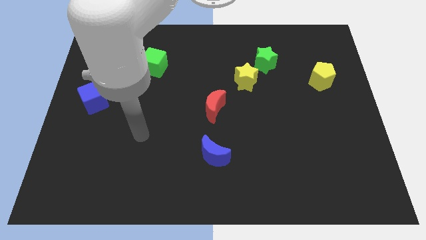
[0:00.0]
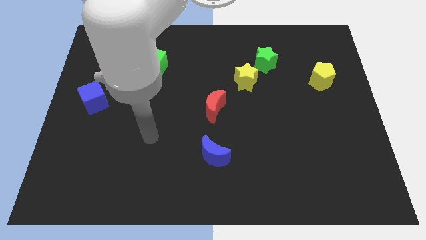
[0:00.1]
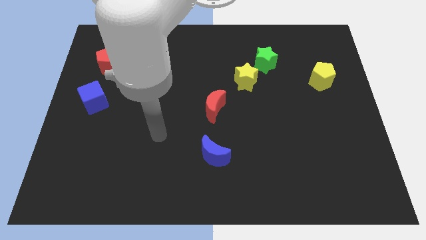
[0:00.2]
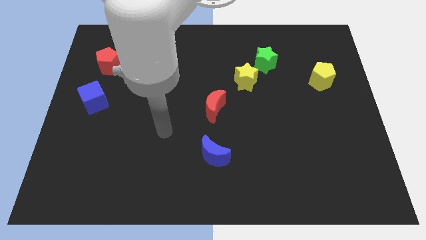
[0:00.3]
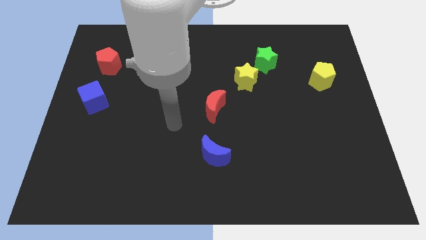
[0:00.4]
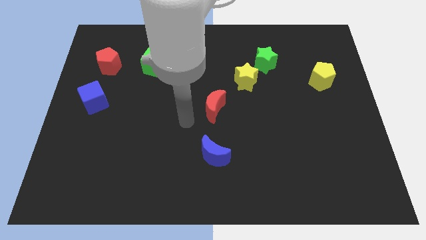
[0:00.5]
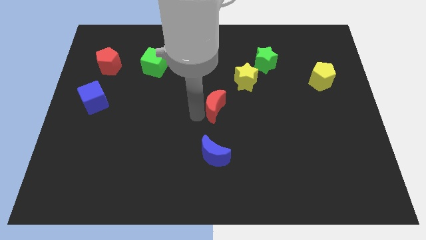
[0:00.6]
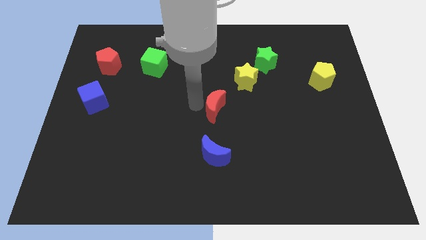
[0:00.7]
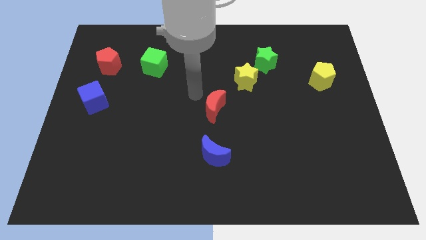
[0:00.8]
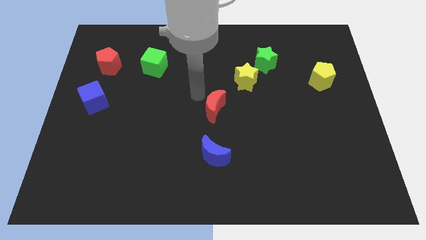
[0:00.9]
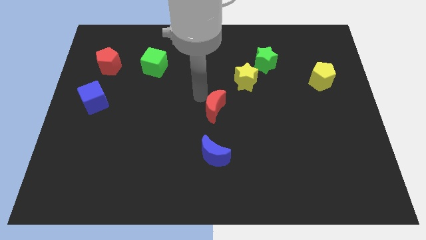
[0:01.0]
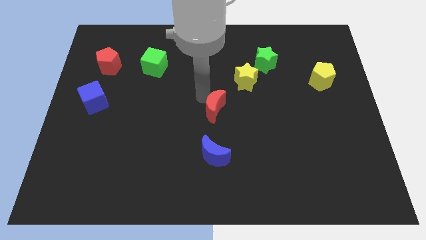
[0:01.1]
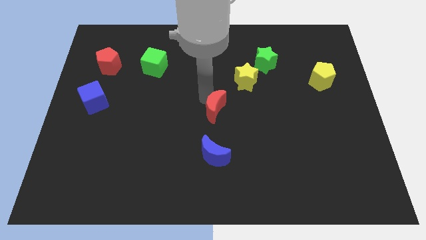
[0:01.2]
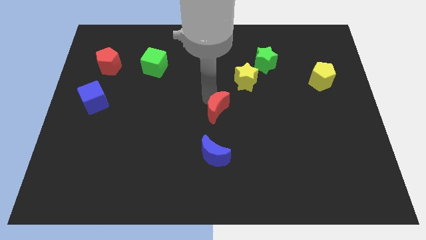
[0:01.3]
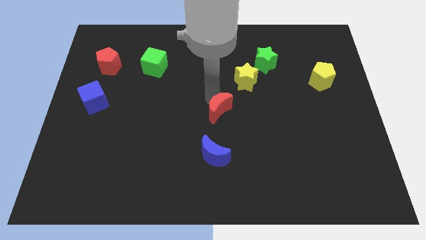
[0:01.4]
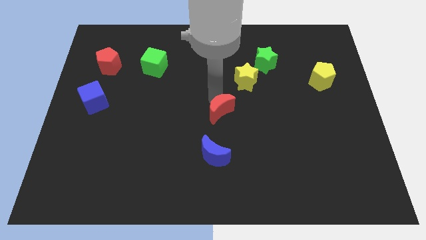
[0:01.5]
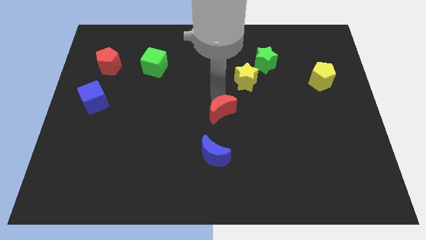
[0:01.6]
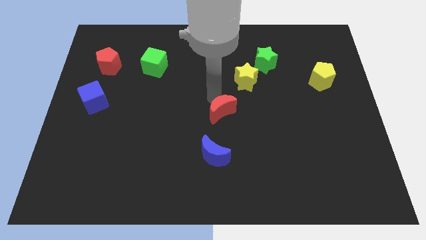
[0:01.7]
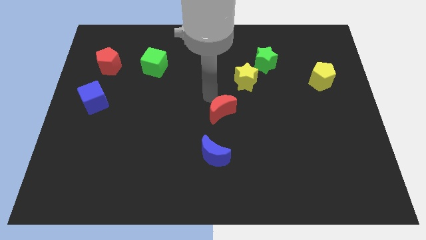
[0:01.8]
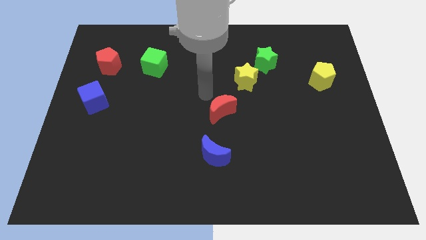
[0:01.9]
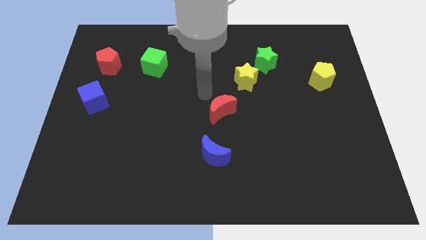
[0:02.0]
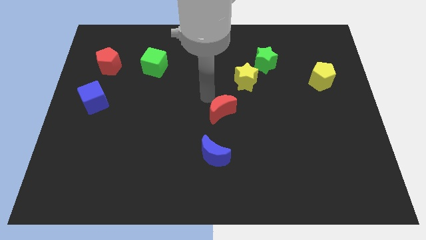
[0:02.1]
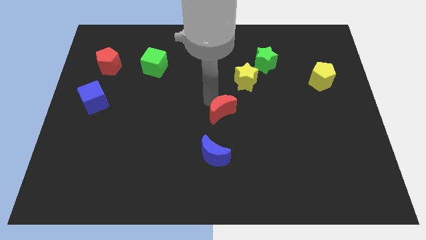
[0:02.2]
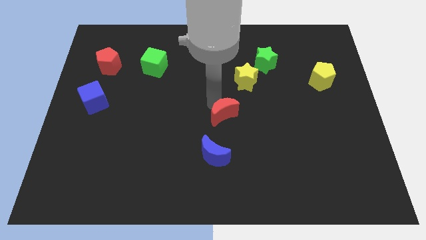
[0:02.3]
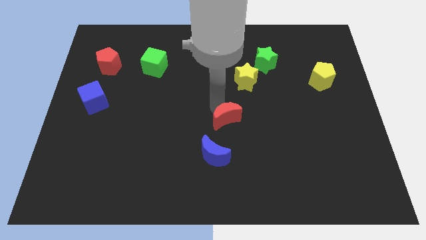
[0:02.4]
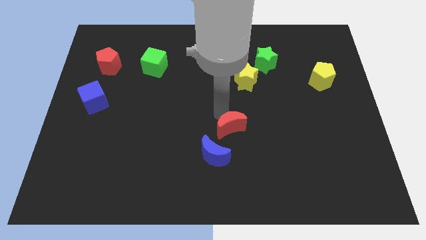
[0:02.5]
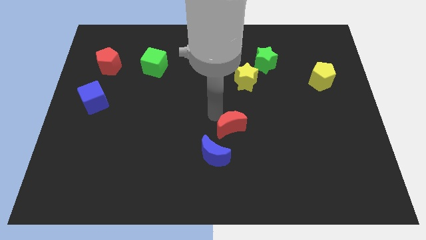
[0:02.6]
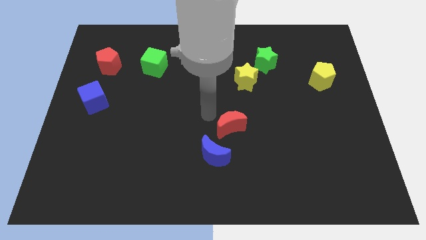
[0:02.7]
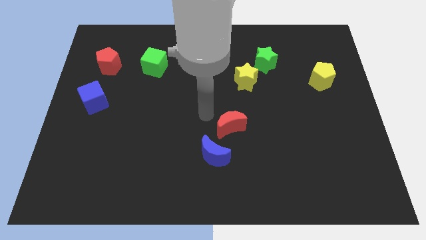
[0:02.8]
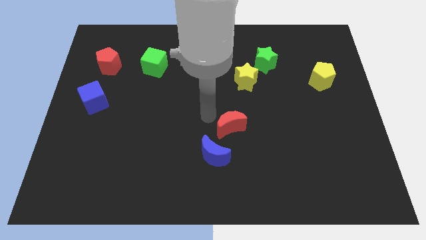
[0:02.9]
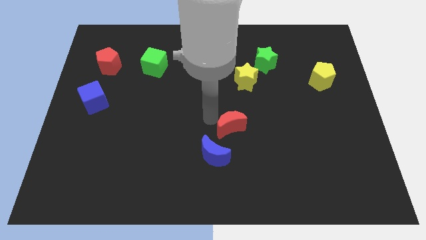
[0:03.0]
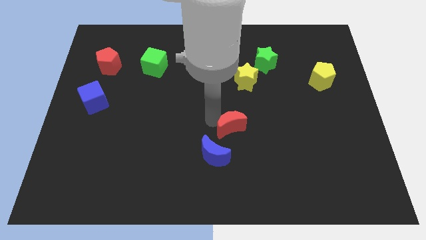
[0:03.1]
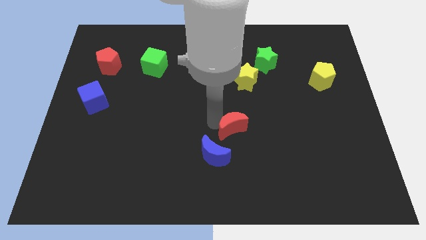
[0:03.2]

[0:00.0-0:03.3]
slide the red moon downwards and right diagonally slightly

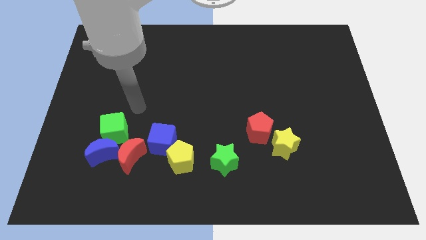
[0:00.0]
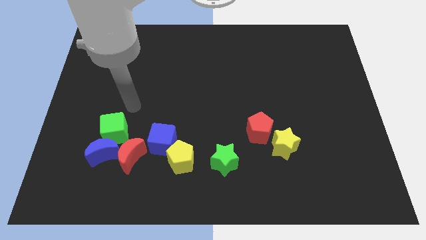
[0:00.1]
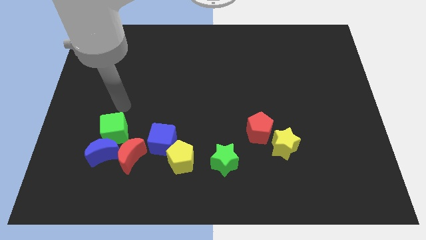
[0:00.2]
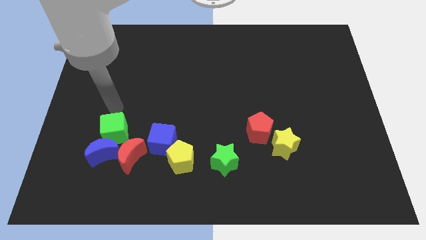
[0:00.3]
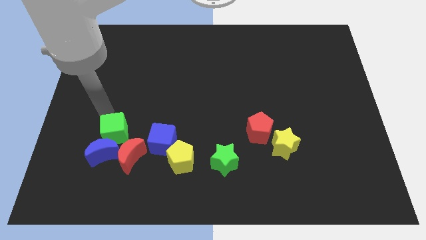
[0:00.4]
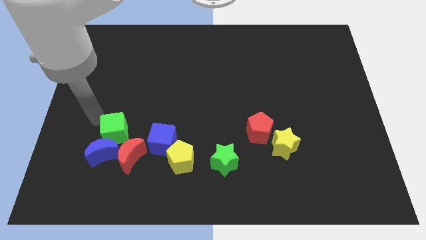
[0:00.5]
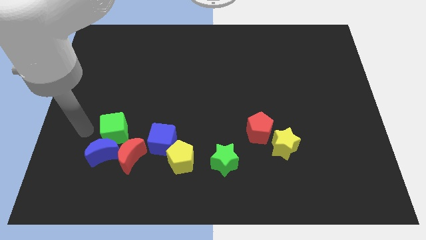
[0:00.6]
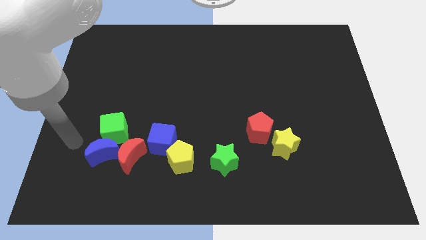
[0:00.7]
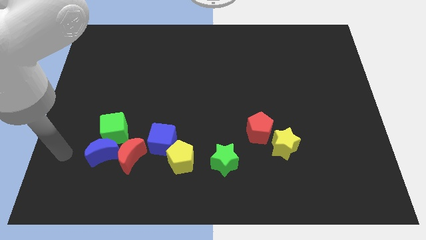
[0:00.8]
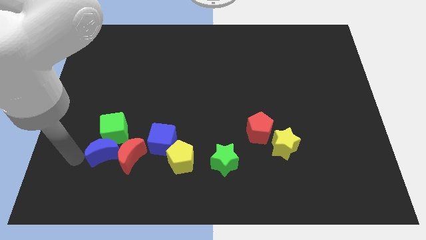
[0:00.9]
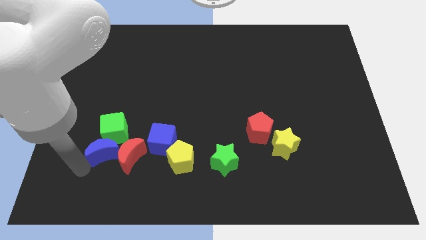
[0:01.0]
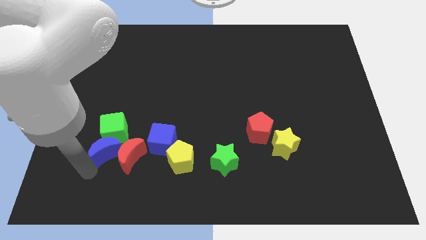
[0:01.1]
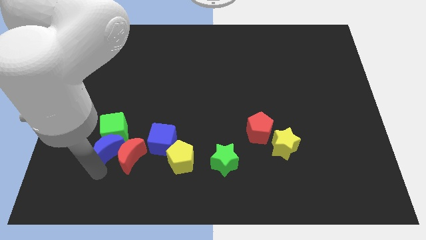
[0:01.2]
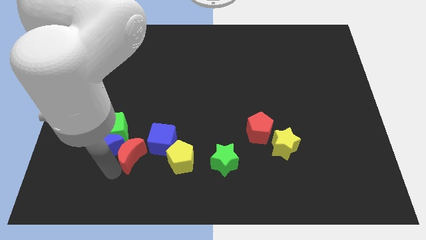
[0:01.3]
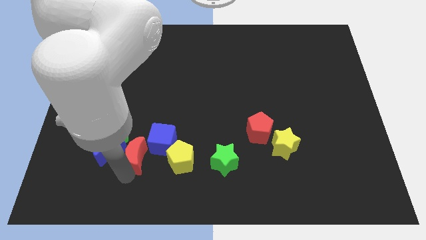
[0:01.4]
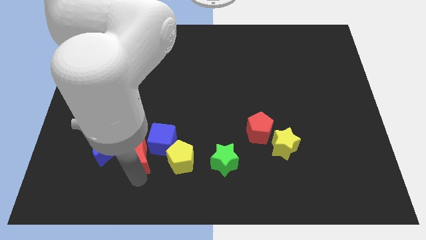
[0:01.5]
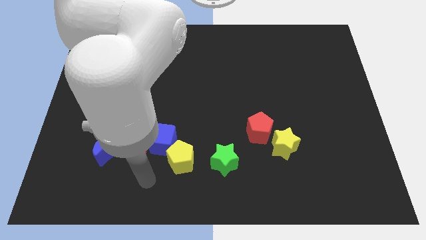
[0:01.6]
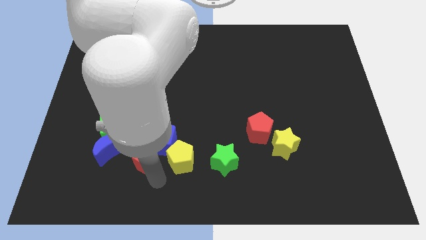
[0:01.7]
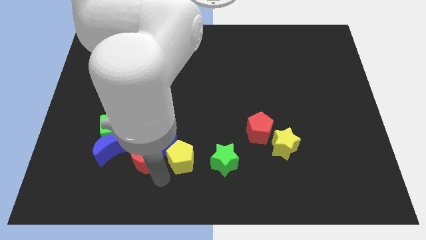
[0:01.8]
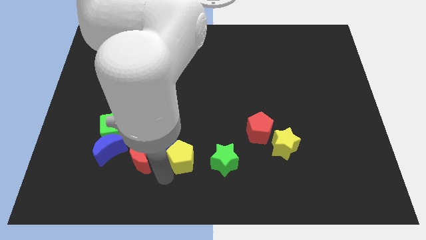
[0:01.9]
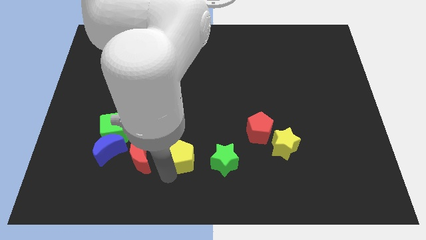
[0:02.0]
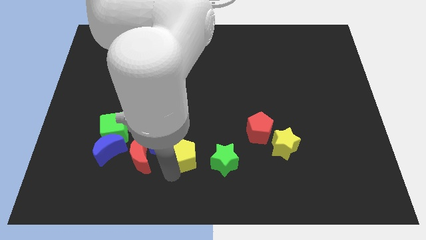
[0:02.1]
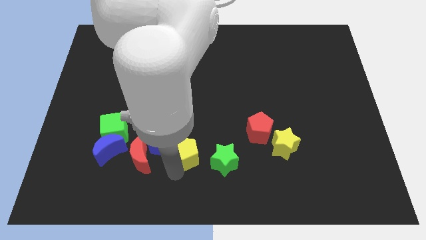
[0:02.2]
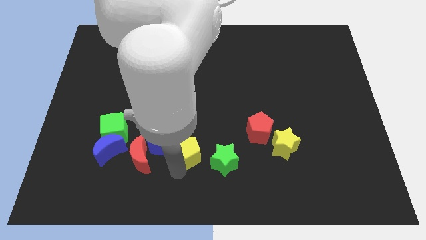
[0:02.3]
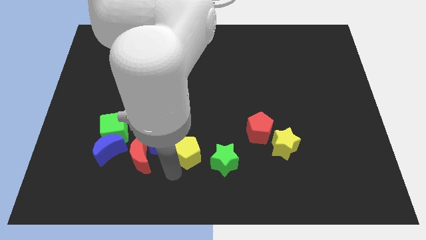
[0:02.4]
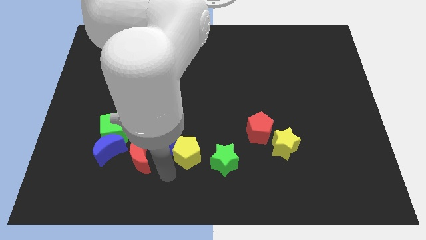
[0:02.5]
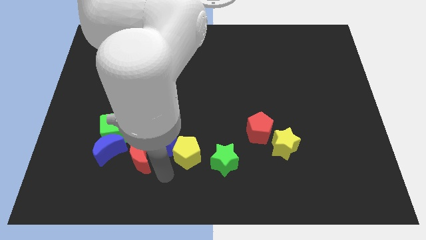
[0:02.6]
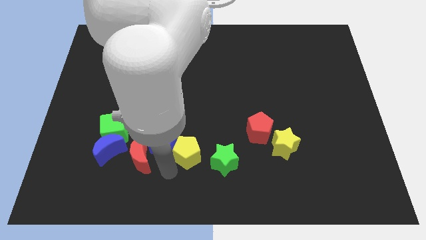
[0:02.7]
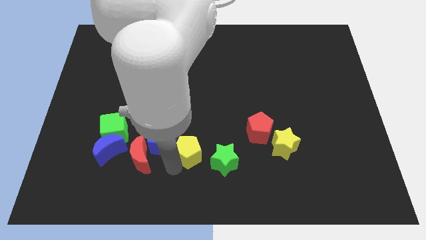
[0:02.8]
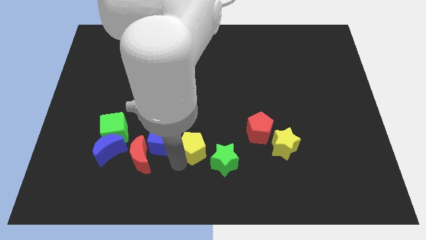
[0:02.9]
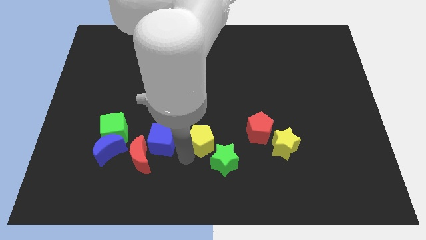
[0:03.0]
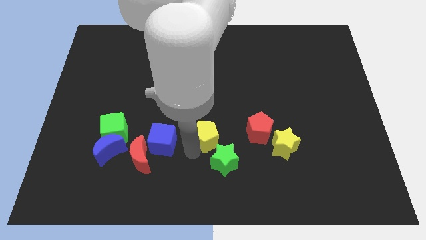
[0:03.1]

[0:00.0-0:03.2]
push the yellow pentagon a bit up and right

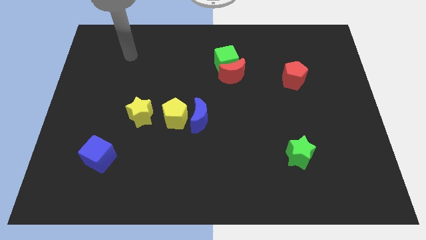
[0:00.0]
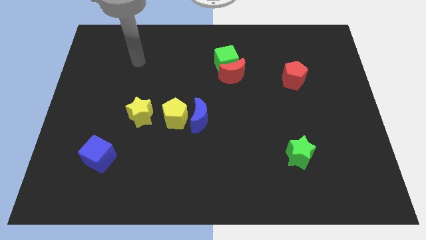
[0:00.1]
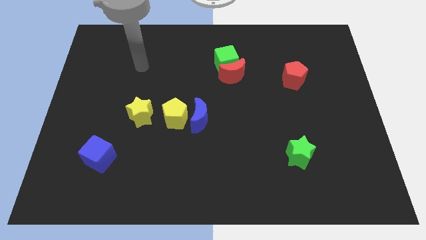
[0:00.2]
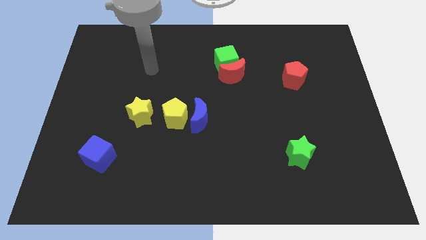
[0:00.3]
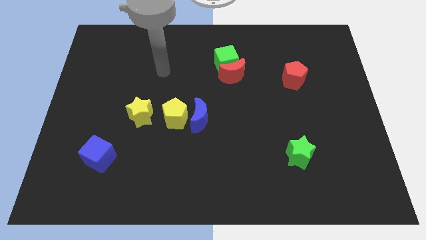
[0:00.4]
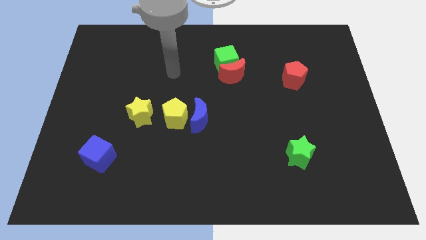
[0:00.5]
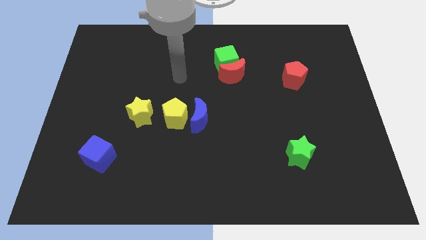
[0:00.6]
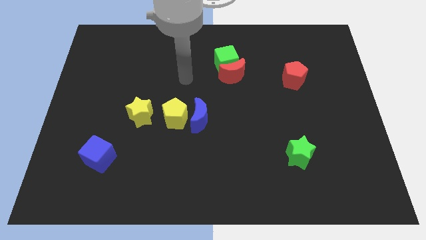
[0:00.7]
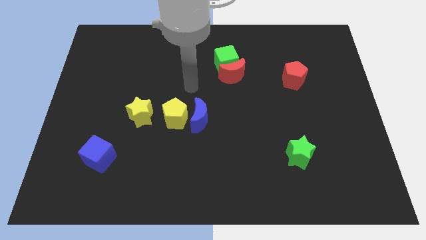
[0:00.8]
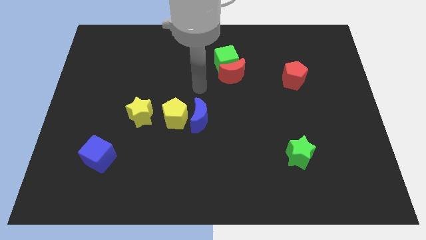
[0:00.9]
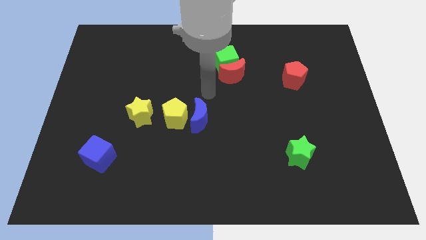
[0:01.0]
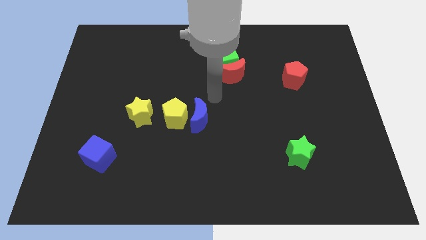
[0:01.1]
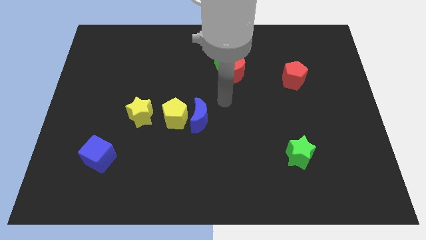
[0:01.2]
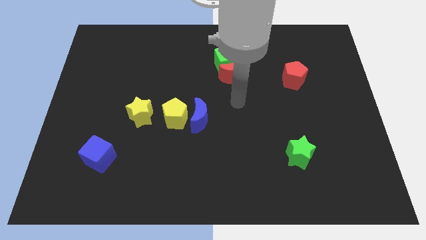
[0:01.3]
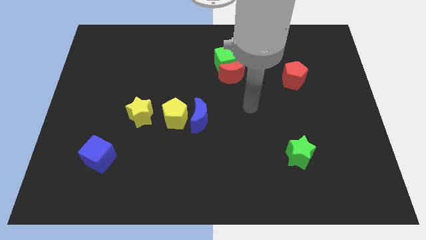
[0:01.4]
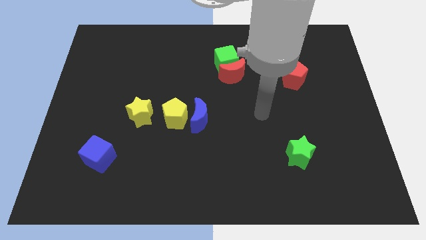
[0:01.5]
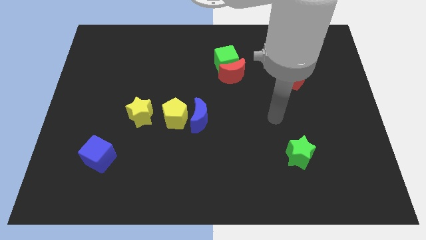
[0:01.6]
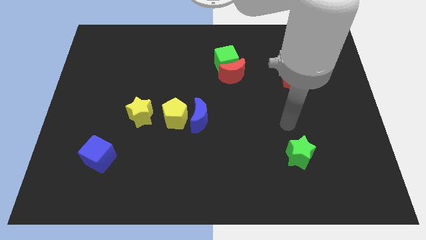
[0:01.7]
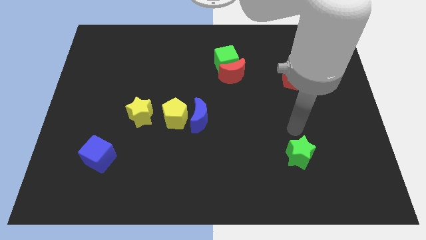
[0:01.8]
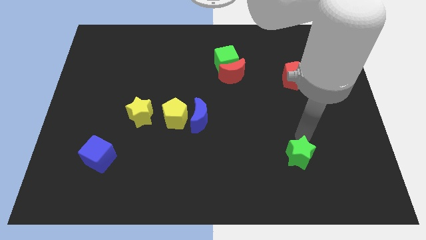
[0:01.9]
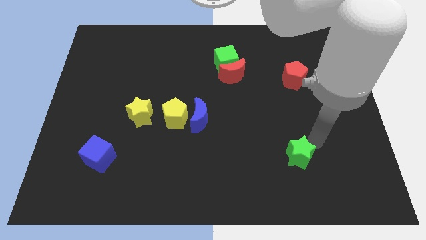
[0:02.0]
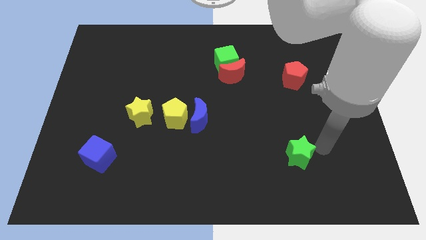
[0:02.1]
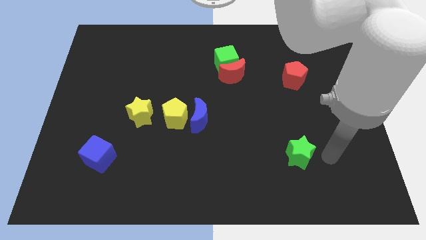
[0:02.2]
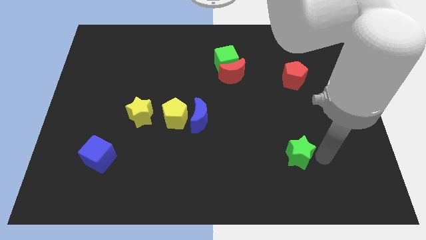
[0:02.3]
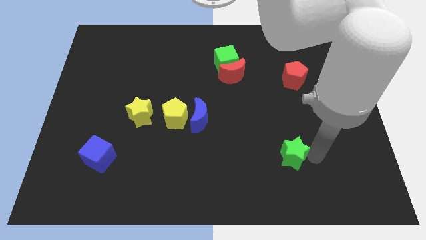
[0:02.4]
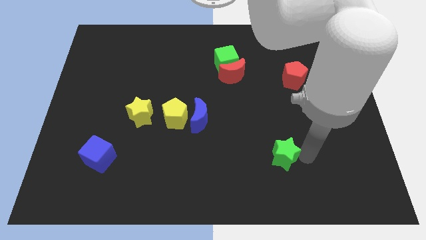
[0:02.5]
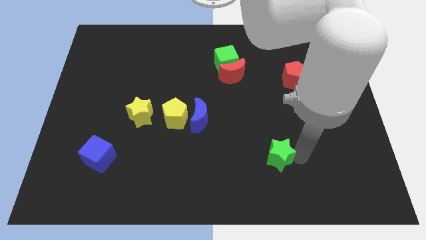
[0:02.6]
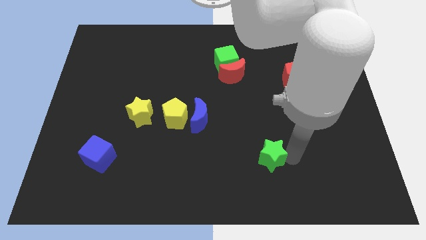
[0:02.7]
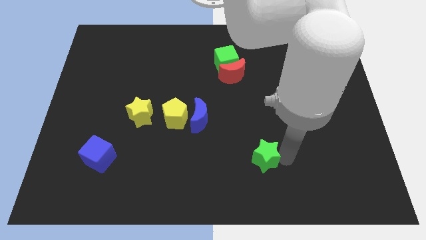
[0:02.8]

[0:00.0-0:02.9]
slide the green star to the left a bit
